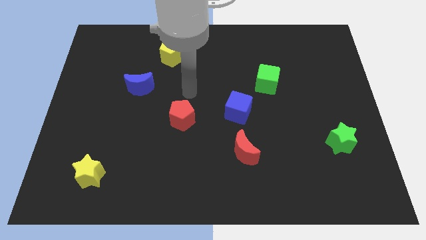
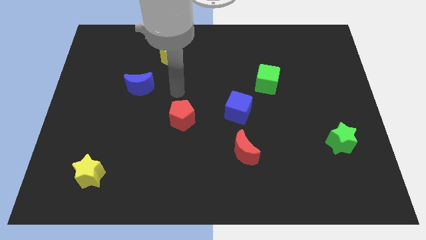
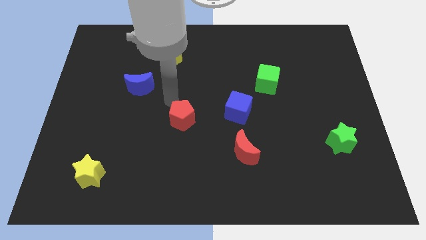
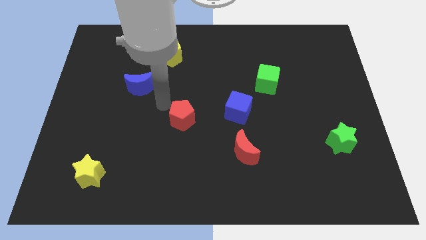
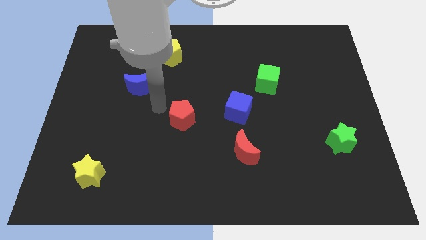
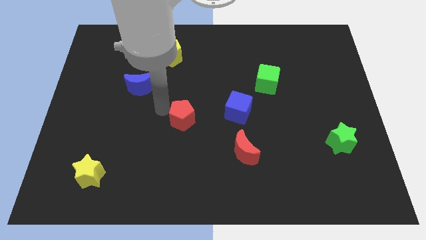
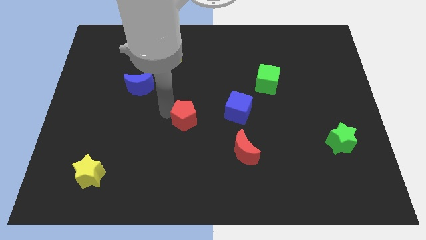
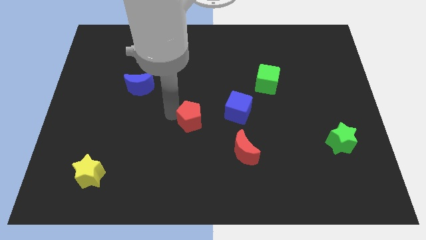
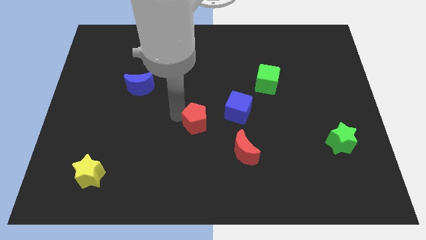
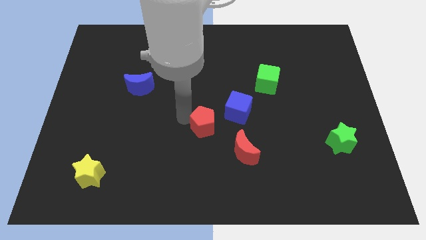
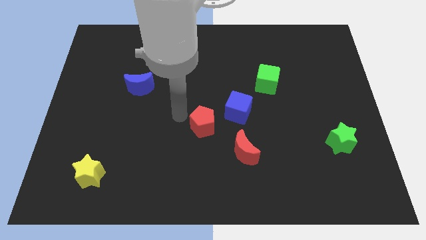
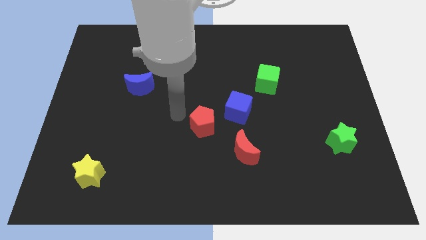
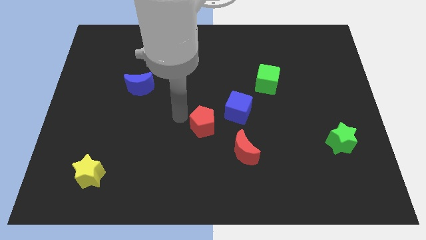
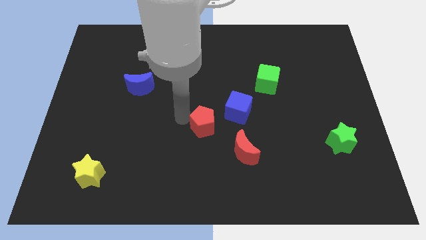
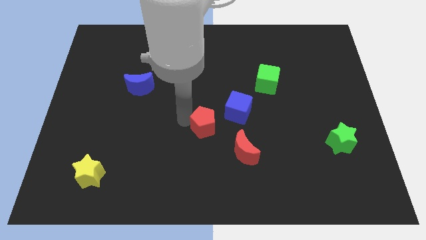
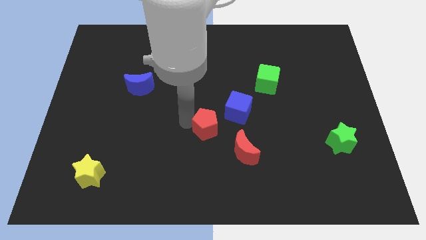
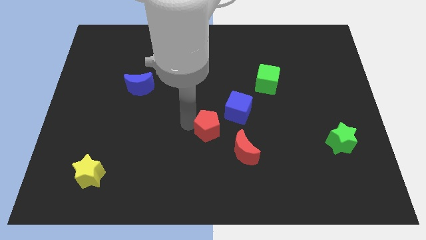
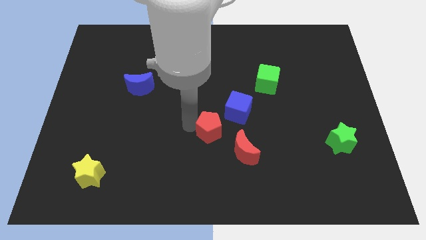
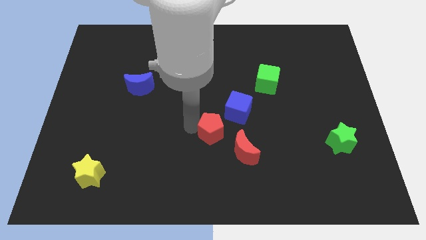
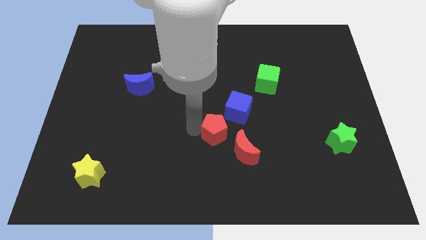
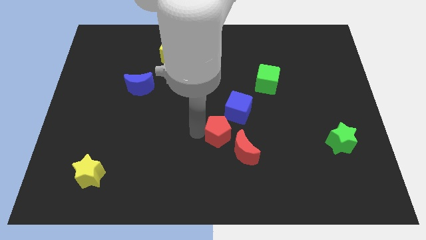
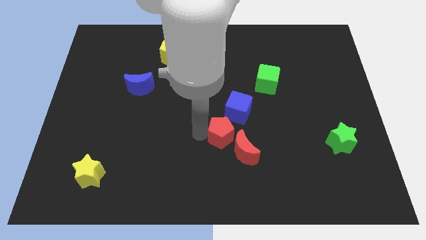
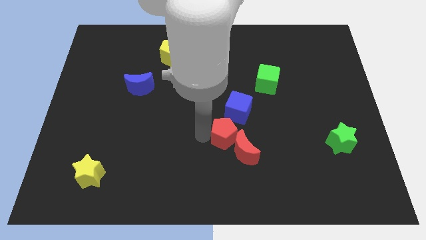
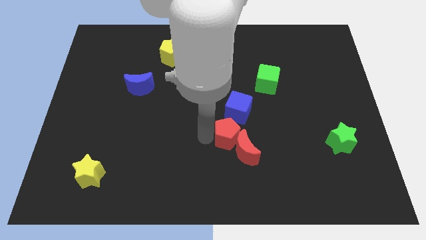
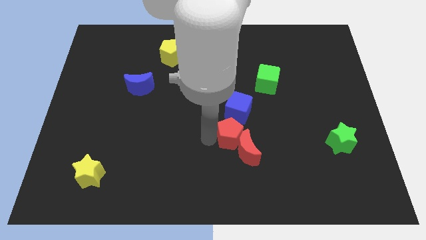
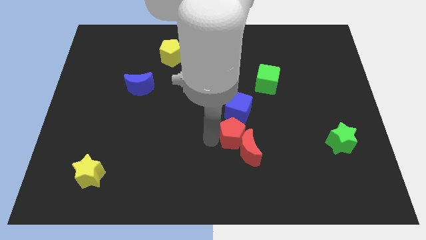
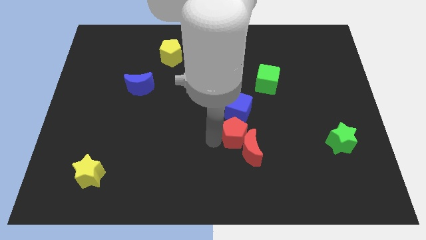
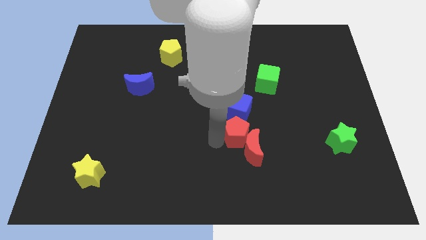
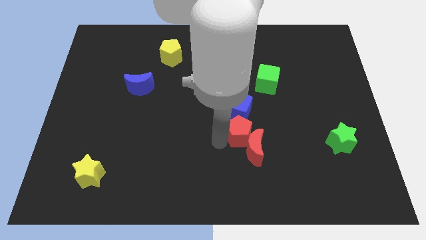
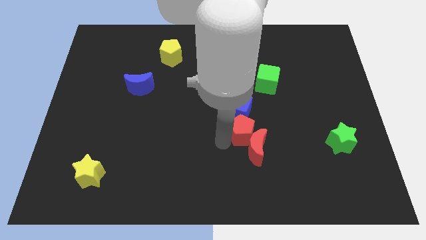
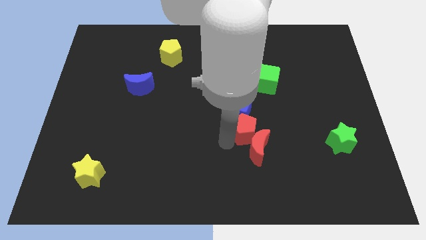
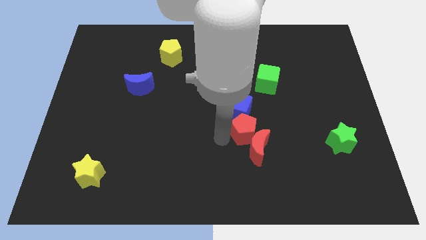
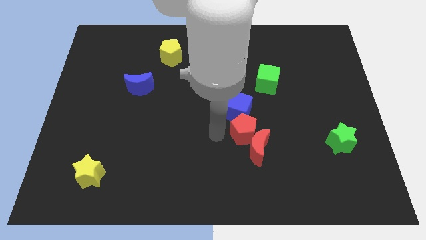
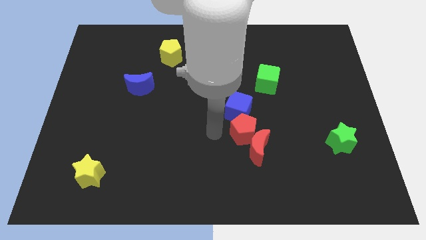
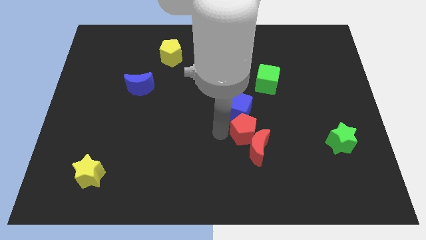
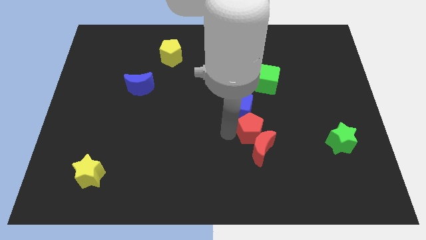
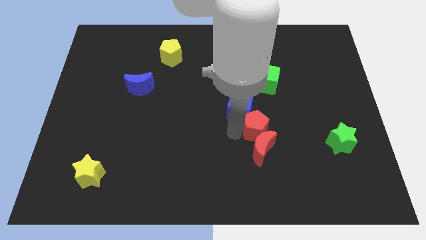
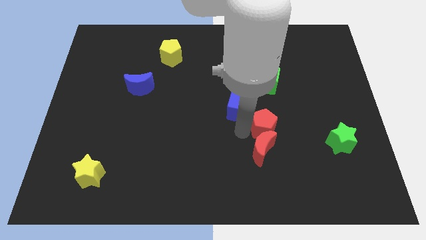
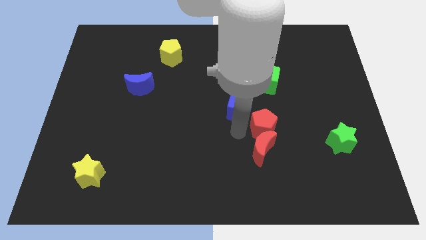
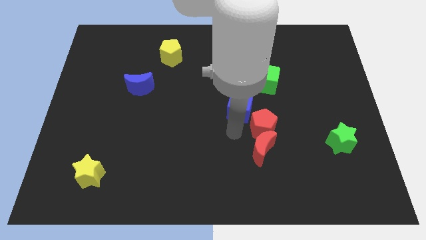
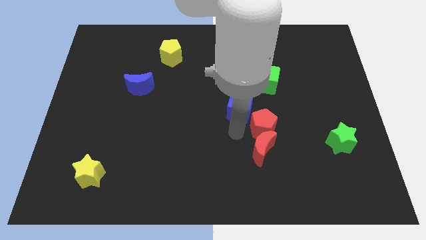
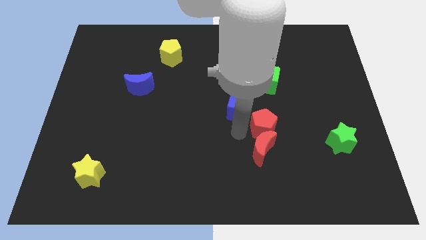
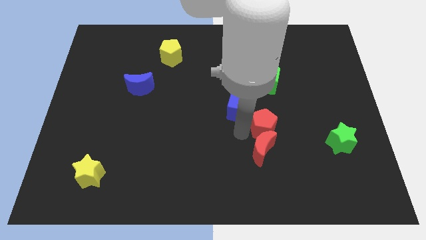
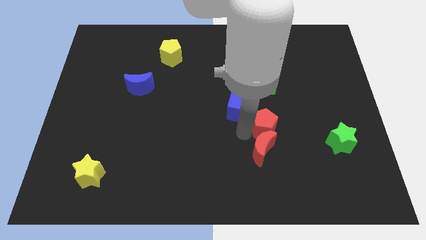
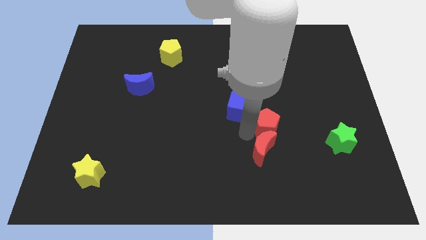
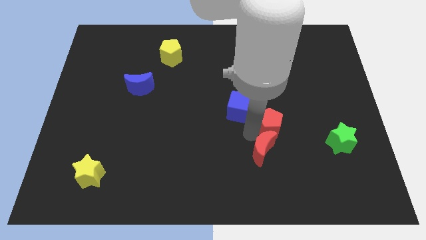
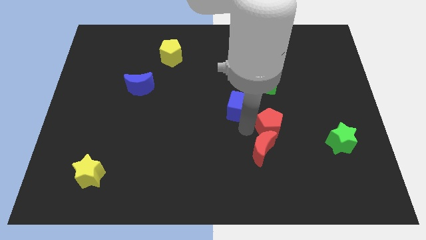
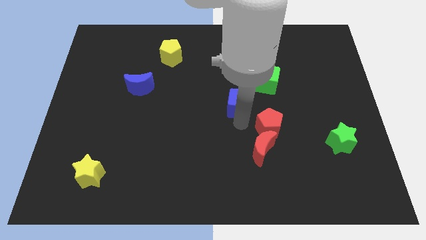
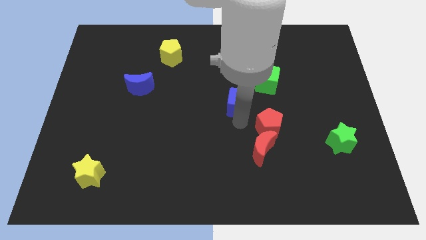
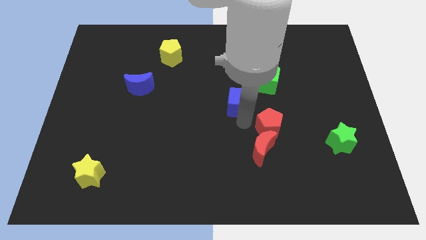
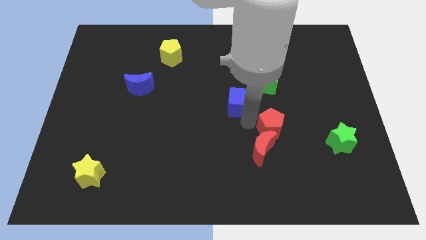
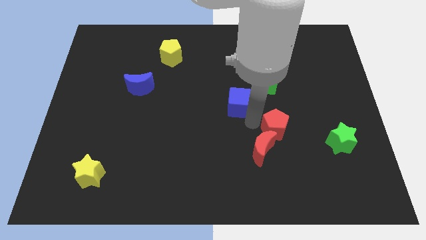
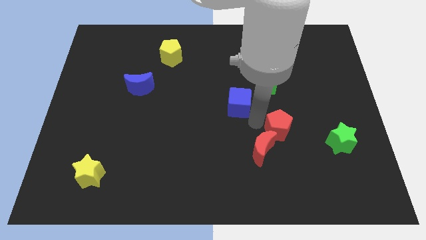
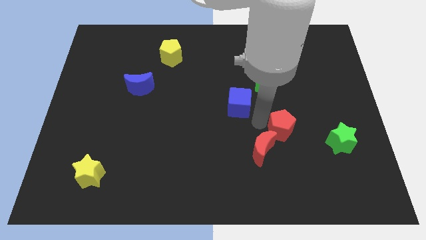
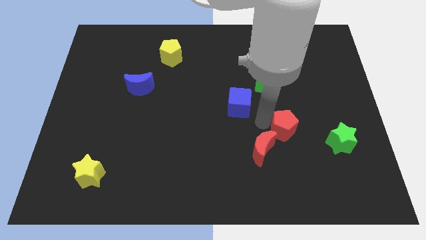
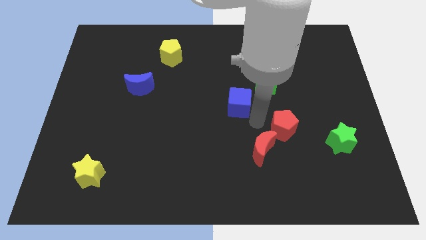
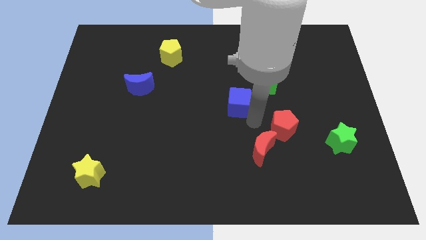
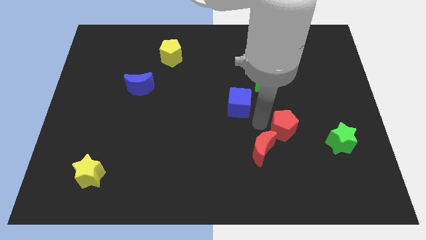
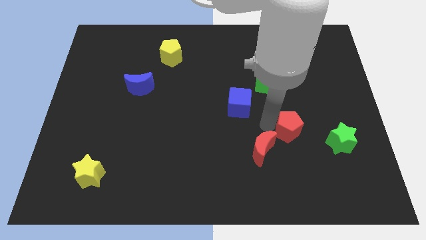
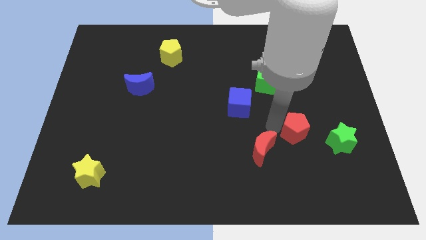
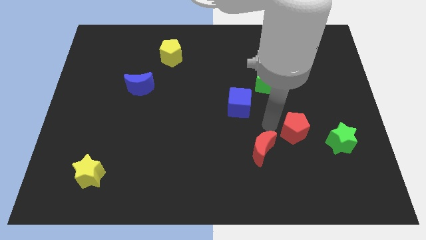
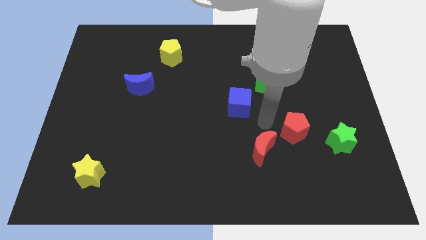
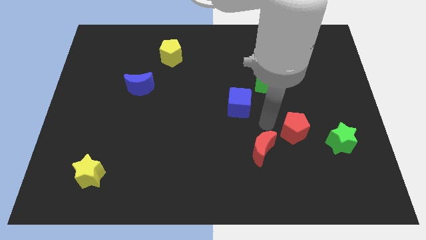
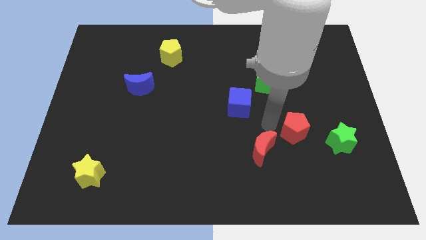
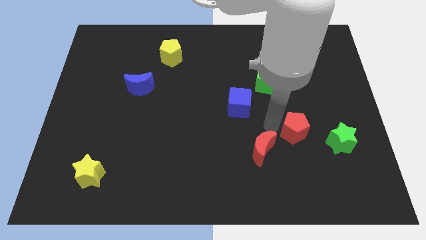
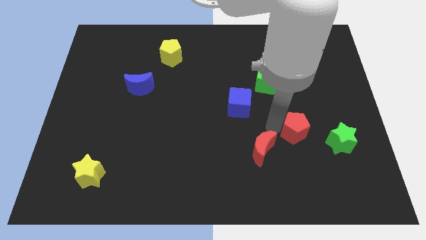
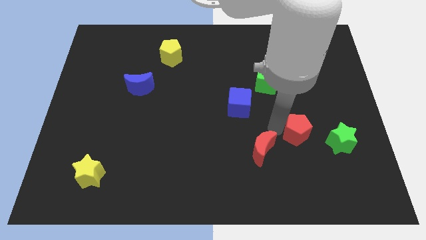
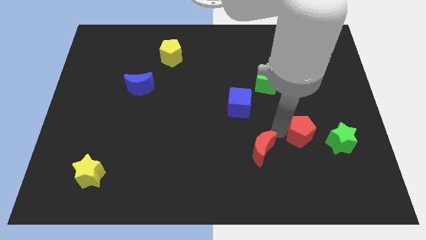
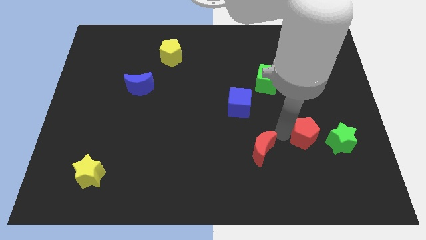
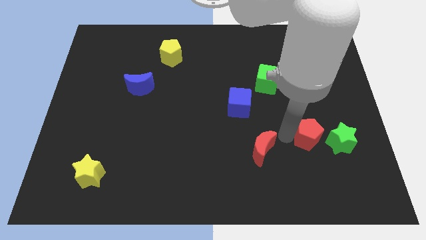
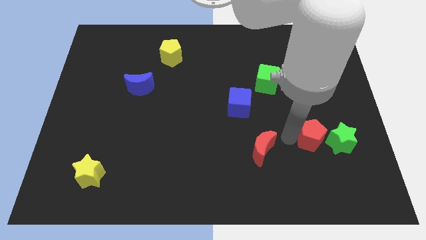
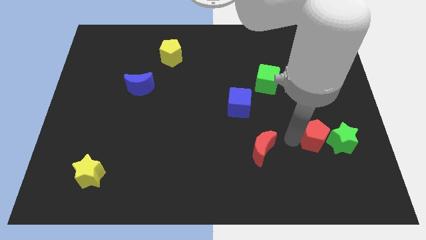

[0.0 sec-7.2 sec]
push the red pentagon towards the green star
